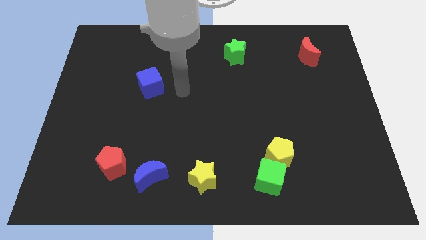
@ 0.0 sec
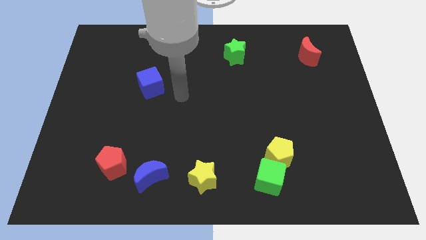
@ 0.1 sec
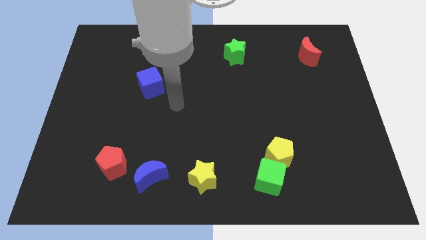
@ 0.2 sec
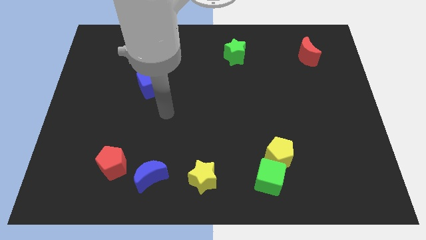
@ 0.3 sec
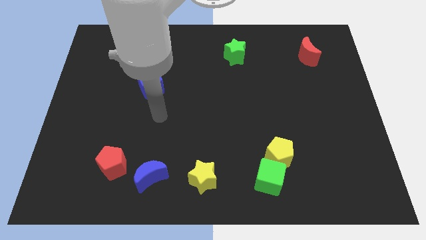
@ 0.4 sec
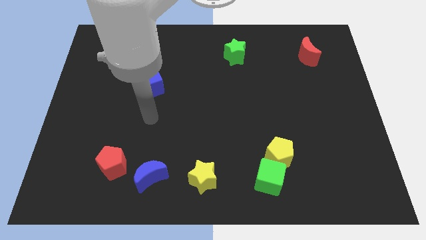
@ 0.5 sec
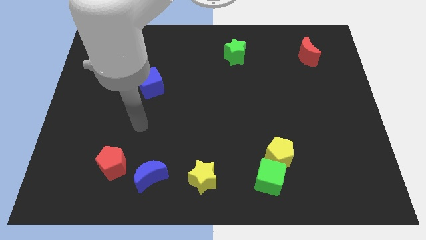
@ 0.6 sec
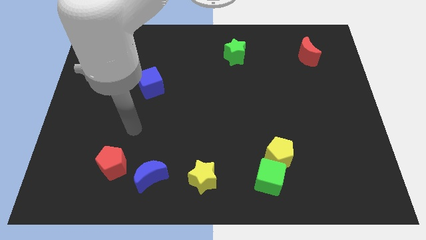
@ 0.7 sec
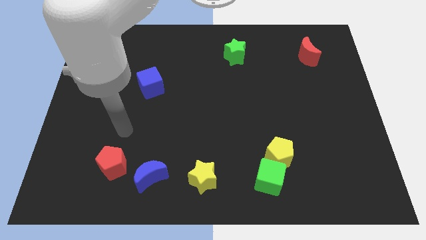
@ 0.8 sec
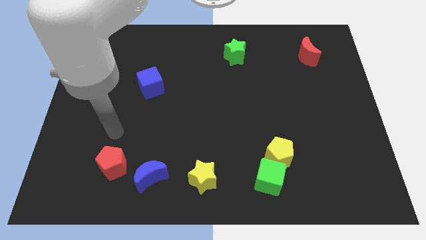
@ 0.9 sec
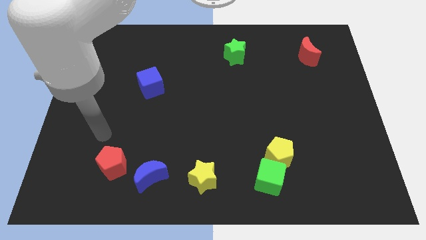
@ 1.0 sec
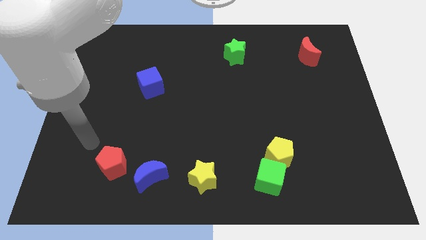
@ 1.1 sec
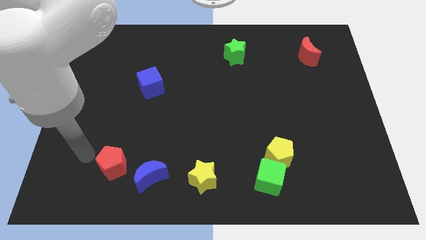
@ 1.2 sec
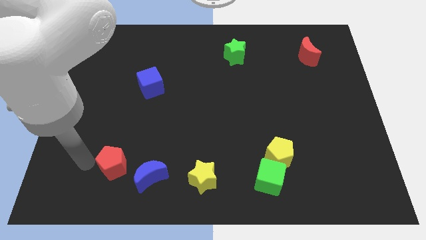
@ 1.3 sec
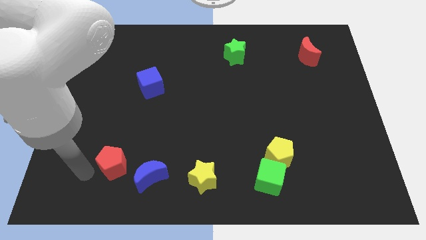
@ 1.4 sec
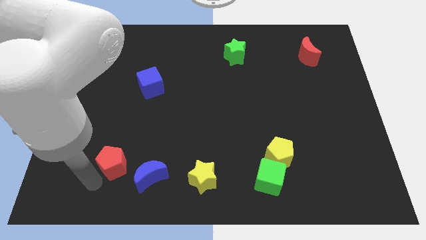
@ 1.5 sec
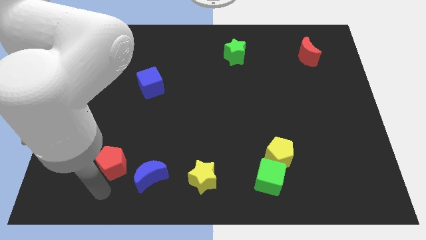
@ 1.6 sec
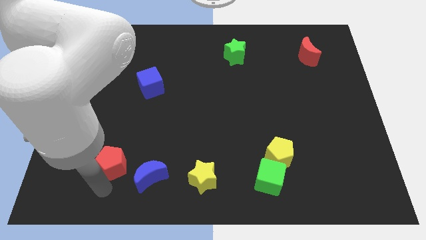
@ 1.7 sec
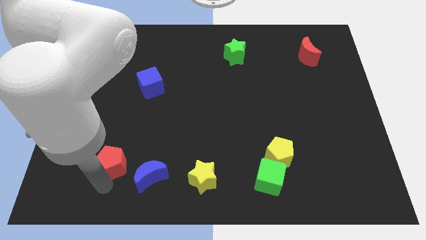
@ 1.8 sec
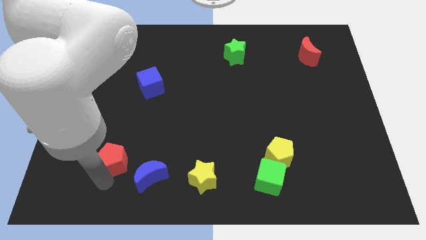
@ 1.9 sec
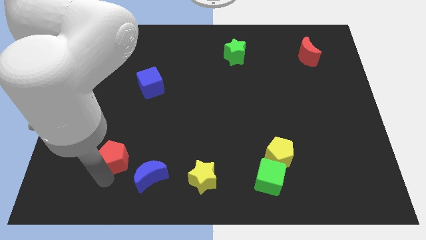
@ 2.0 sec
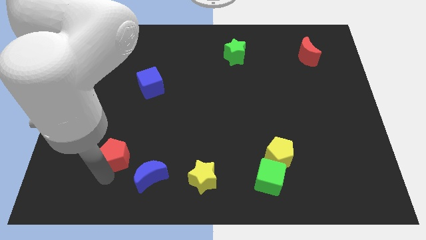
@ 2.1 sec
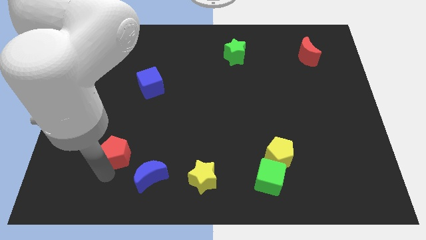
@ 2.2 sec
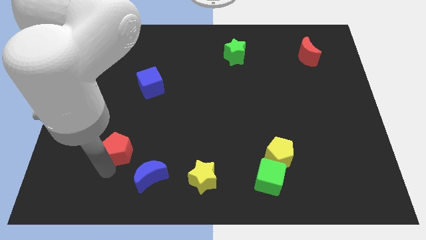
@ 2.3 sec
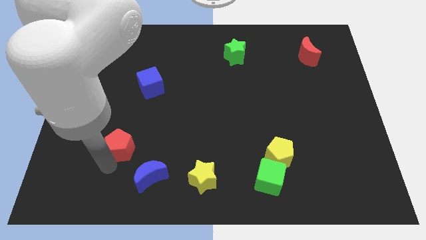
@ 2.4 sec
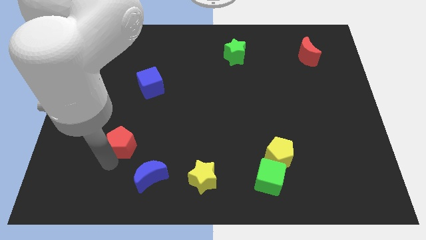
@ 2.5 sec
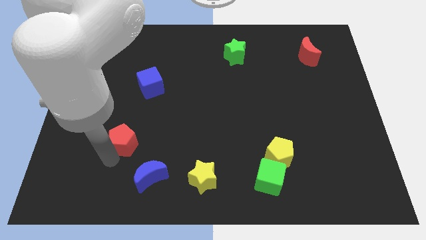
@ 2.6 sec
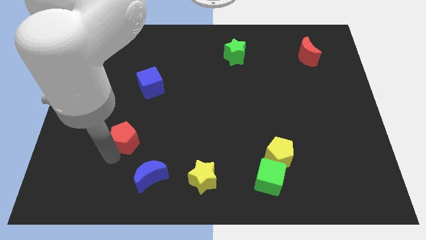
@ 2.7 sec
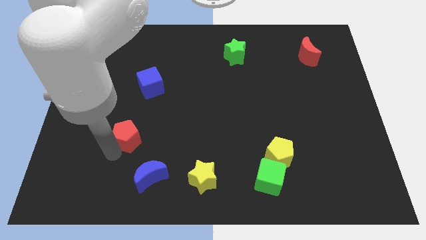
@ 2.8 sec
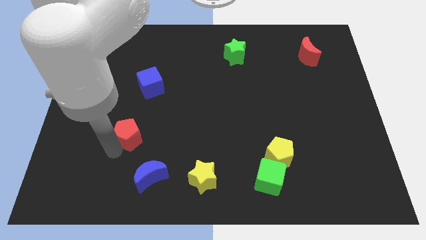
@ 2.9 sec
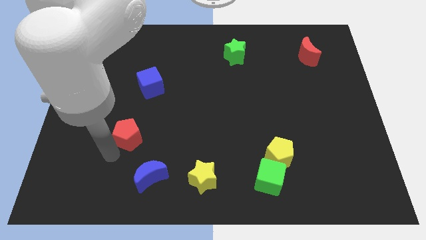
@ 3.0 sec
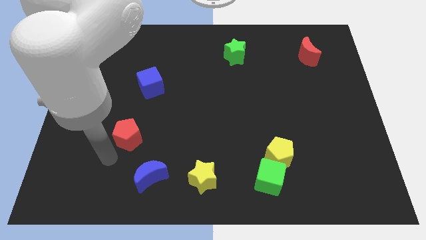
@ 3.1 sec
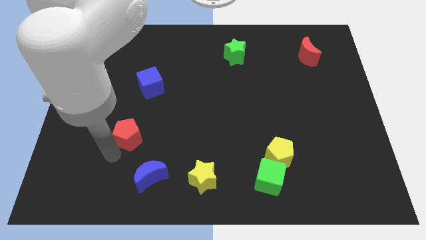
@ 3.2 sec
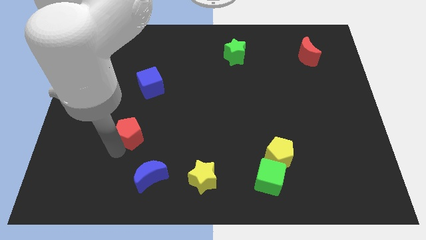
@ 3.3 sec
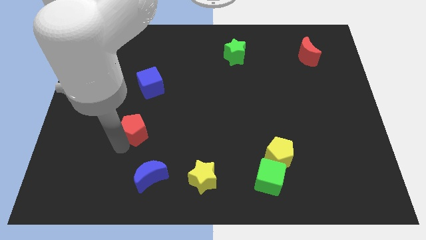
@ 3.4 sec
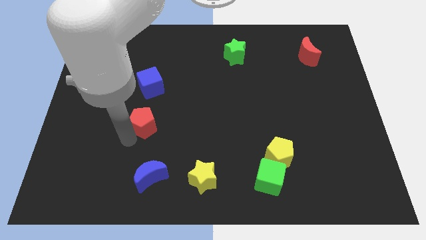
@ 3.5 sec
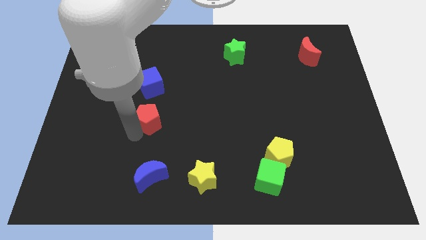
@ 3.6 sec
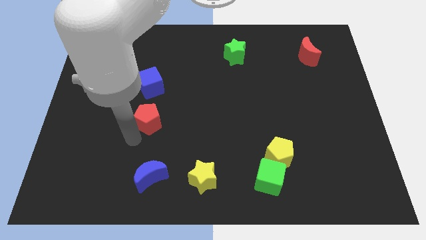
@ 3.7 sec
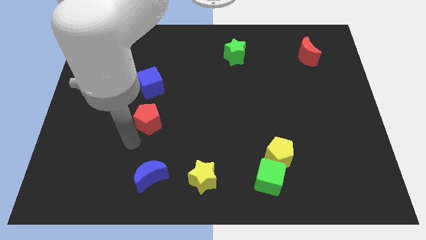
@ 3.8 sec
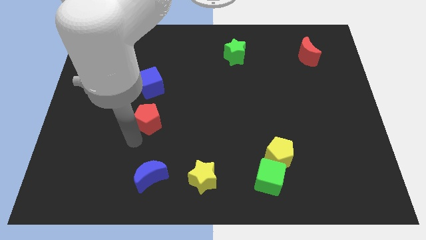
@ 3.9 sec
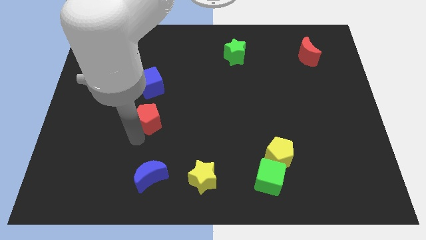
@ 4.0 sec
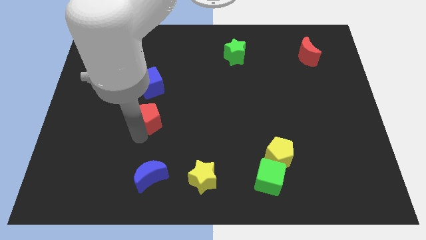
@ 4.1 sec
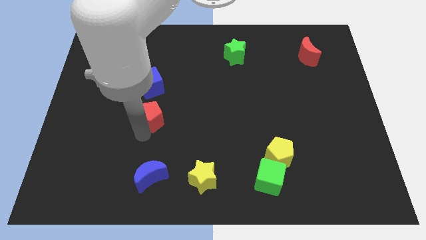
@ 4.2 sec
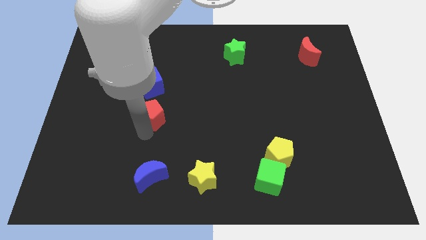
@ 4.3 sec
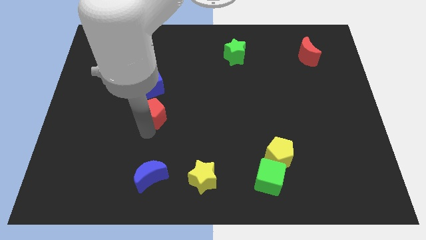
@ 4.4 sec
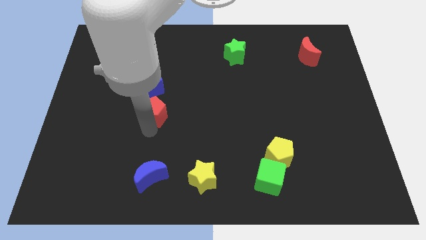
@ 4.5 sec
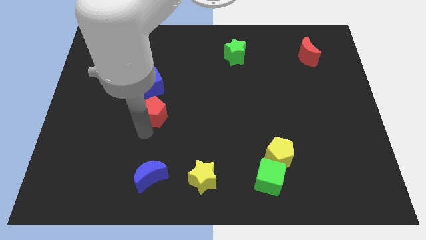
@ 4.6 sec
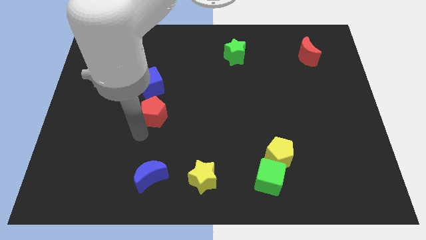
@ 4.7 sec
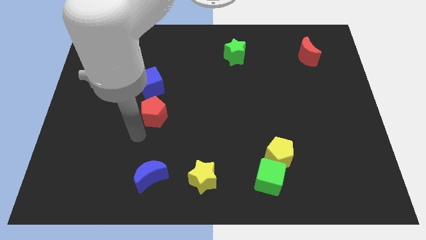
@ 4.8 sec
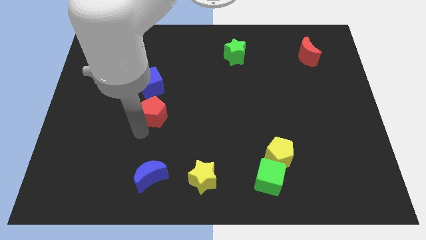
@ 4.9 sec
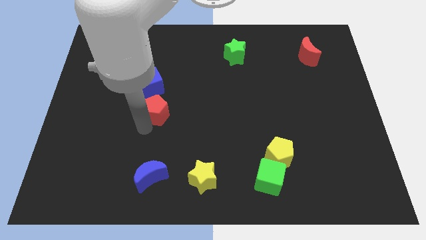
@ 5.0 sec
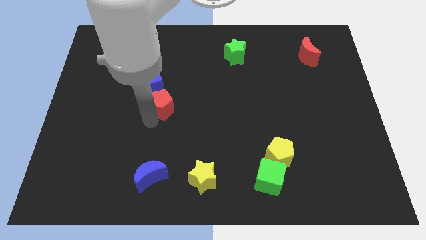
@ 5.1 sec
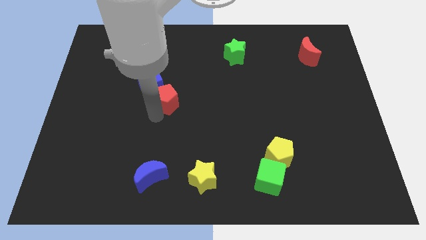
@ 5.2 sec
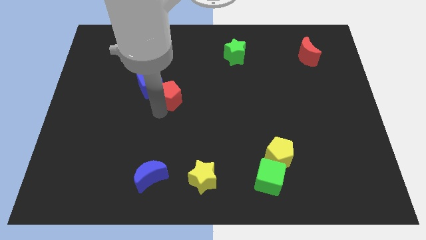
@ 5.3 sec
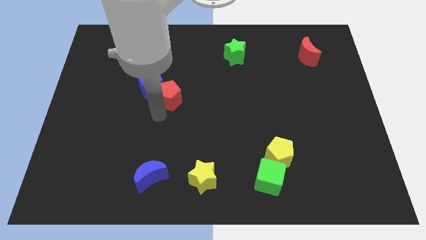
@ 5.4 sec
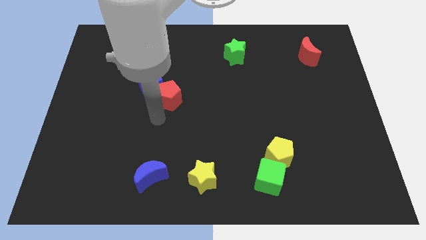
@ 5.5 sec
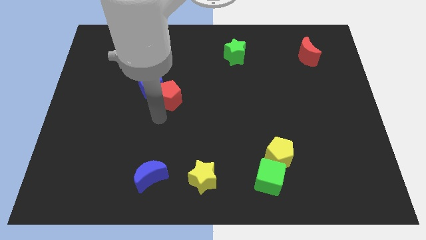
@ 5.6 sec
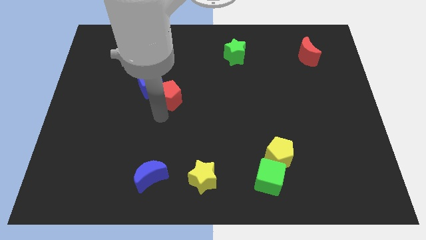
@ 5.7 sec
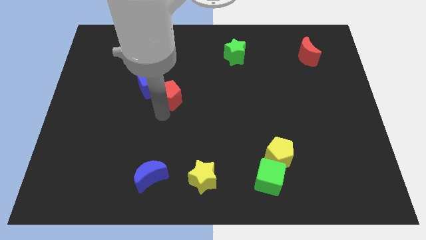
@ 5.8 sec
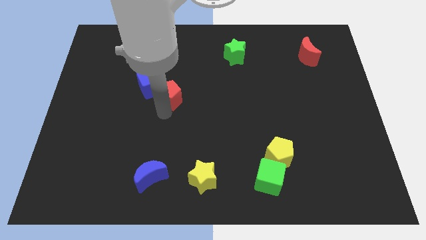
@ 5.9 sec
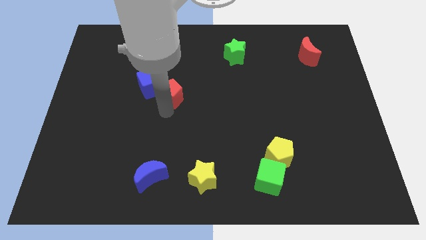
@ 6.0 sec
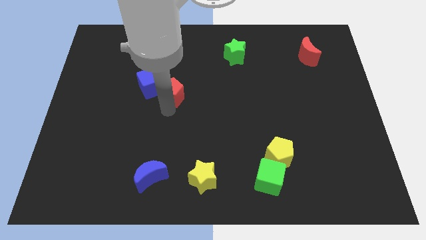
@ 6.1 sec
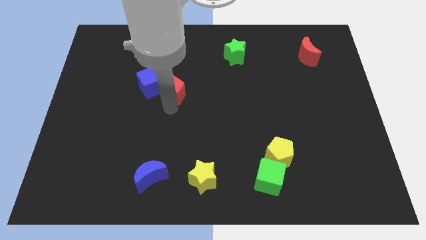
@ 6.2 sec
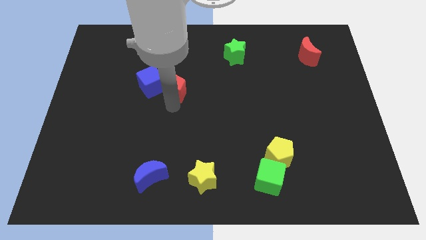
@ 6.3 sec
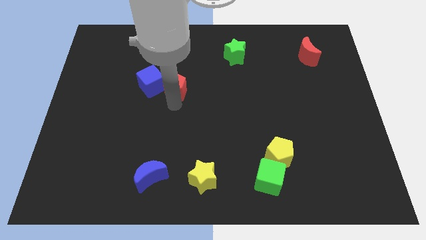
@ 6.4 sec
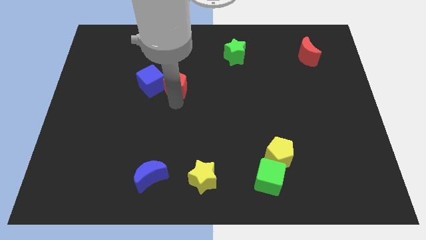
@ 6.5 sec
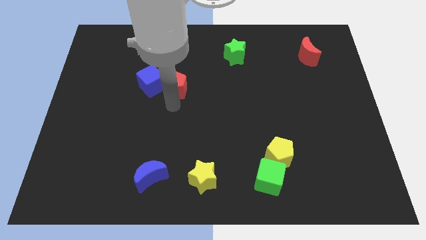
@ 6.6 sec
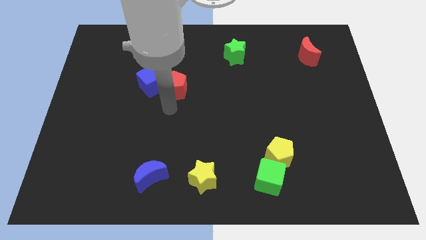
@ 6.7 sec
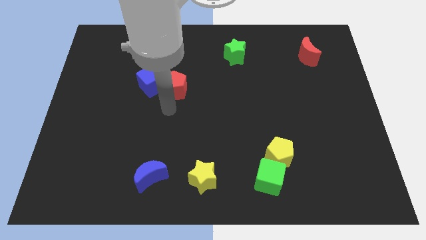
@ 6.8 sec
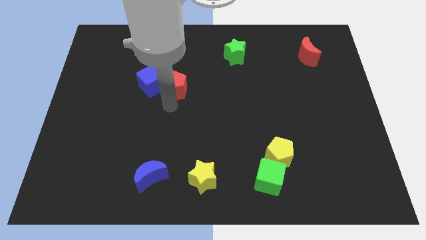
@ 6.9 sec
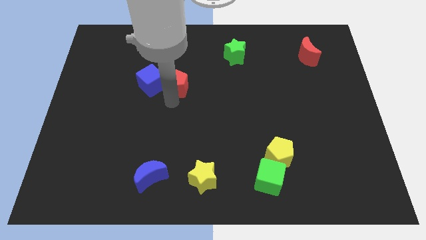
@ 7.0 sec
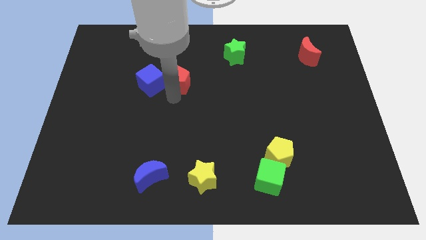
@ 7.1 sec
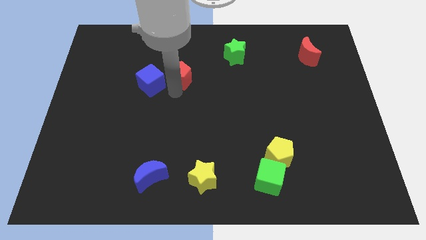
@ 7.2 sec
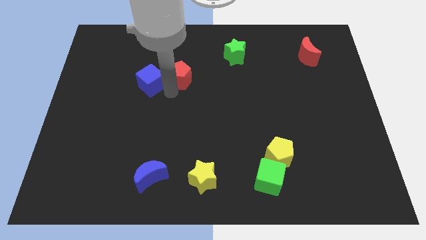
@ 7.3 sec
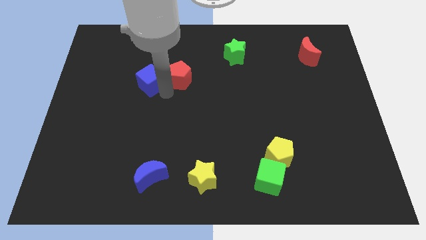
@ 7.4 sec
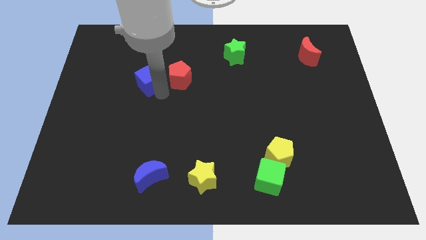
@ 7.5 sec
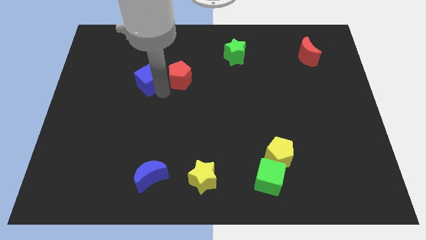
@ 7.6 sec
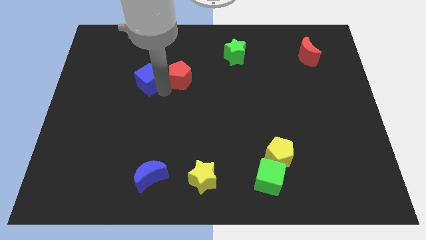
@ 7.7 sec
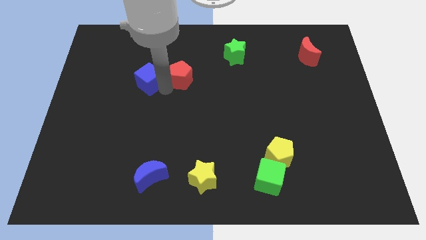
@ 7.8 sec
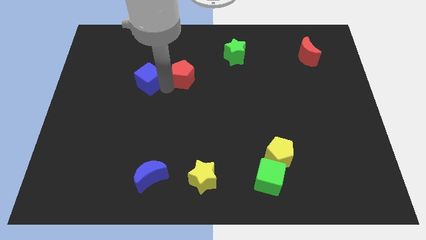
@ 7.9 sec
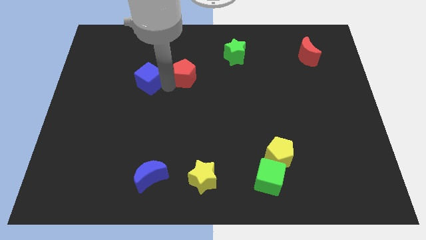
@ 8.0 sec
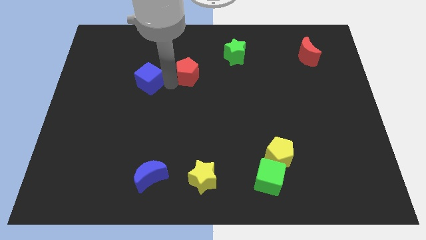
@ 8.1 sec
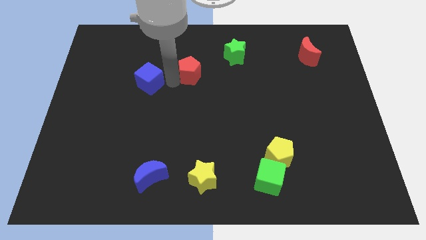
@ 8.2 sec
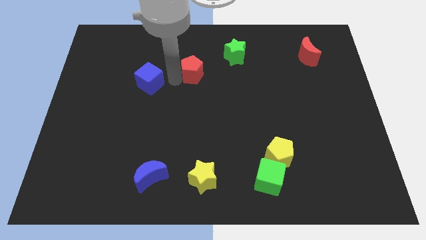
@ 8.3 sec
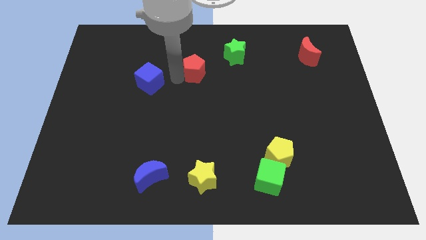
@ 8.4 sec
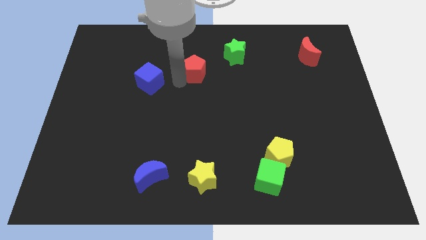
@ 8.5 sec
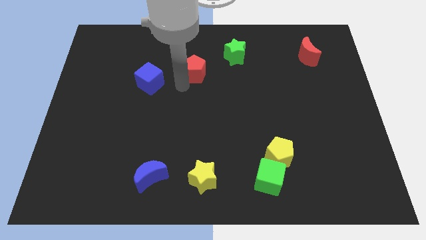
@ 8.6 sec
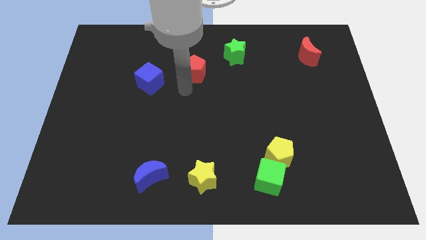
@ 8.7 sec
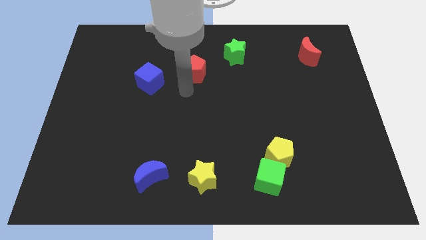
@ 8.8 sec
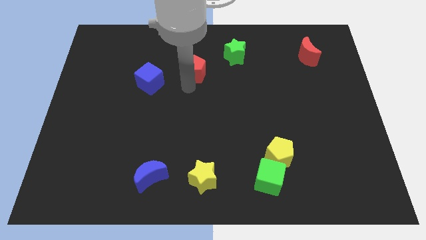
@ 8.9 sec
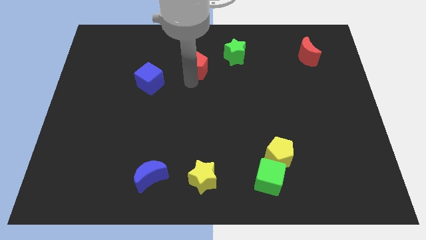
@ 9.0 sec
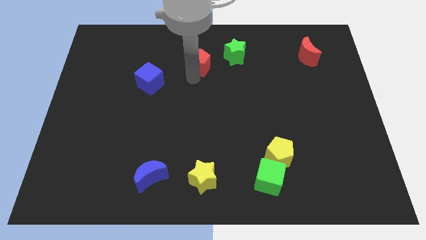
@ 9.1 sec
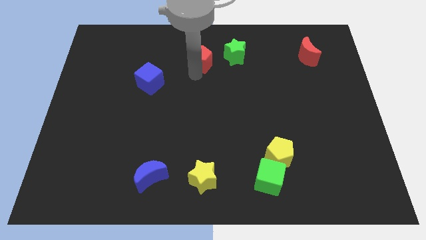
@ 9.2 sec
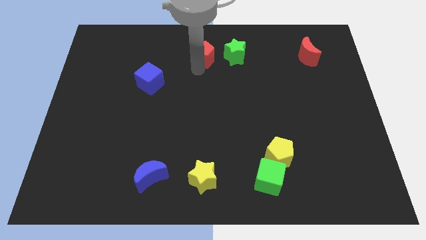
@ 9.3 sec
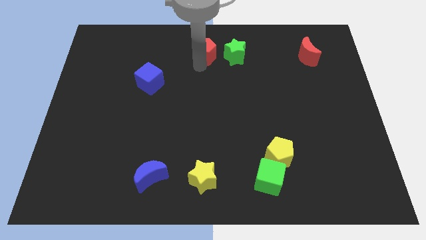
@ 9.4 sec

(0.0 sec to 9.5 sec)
push the red pentagon to the top side
